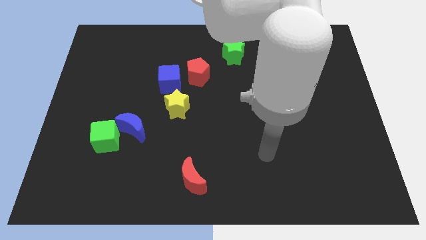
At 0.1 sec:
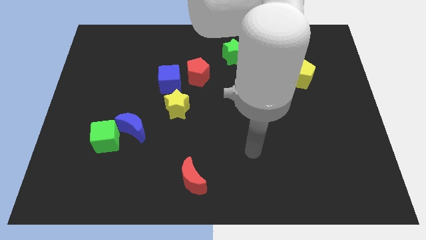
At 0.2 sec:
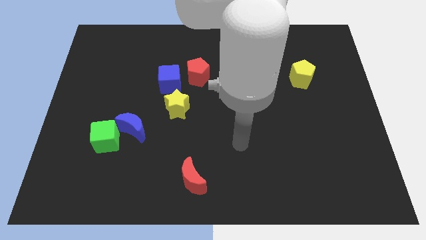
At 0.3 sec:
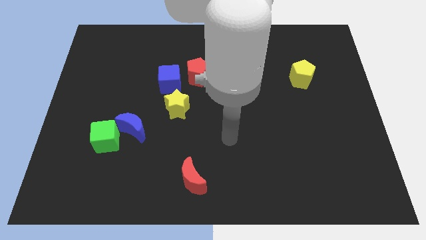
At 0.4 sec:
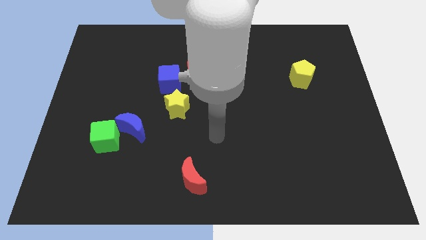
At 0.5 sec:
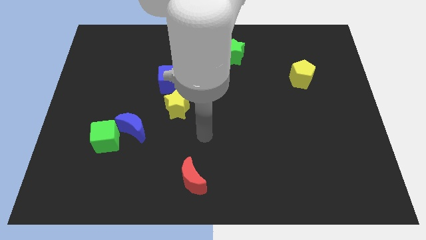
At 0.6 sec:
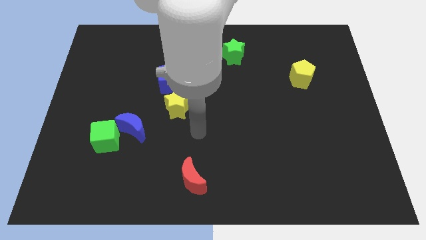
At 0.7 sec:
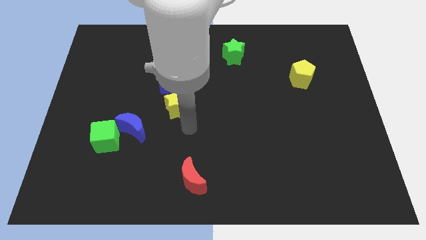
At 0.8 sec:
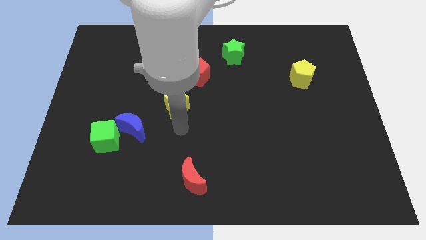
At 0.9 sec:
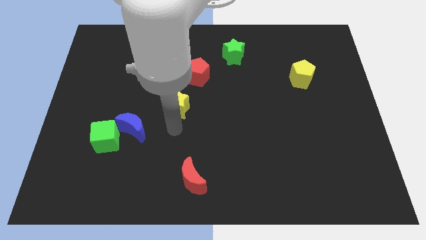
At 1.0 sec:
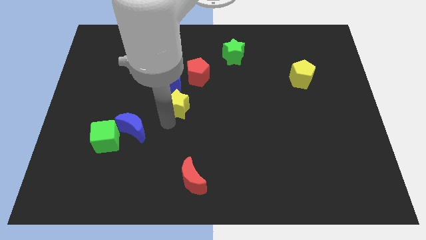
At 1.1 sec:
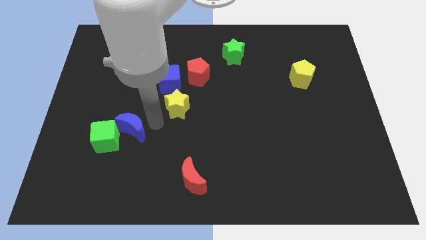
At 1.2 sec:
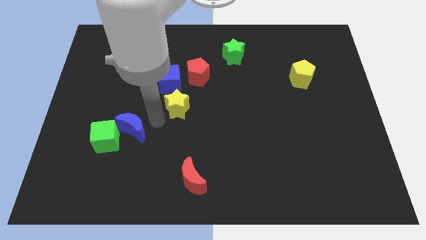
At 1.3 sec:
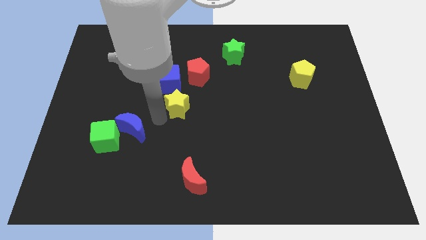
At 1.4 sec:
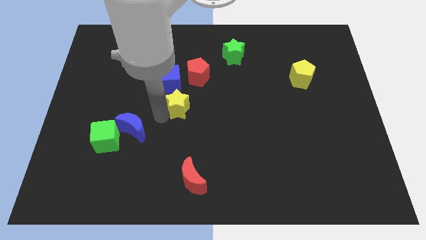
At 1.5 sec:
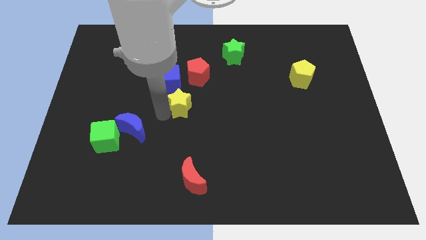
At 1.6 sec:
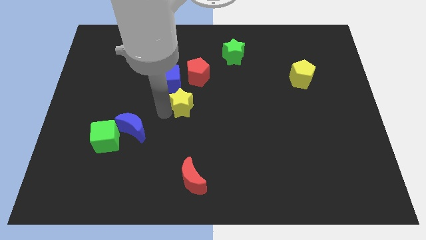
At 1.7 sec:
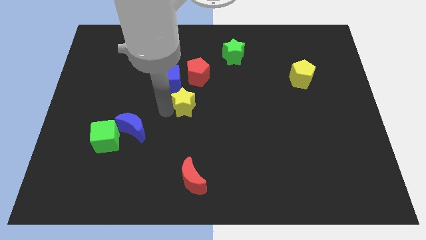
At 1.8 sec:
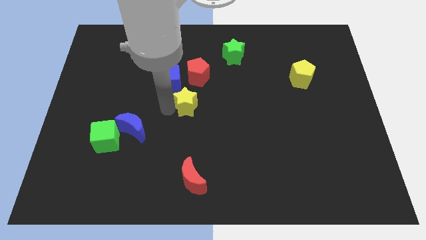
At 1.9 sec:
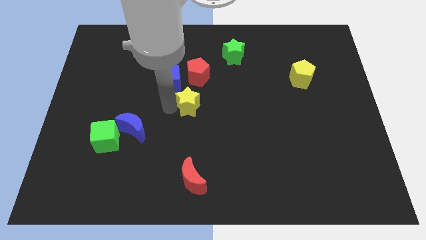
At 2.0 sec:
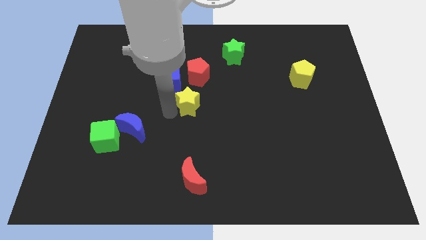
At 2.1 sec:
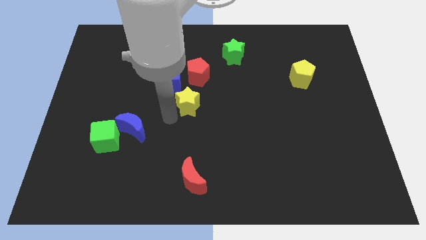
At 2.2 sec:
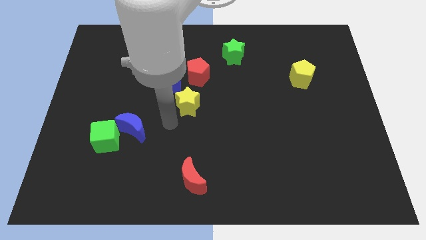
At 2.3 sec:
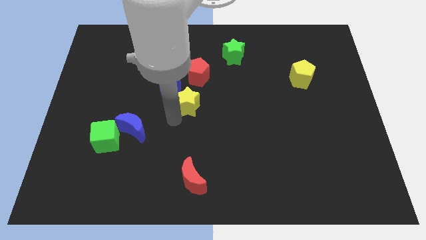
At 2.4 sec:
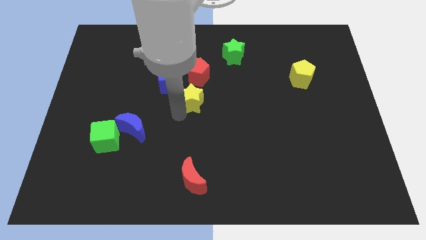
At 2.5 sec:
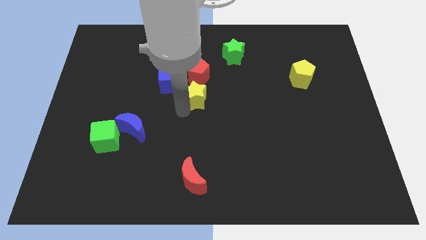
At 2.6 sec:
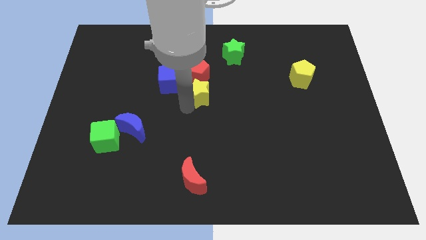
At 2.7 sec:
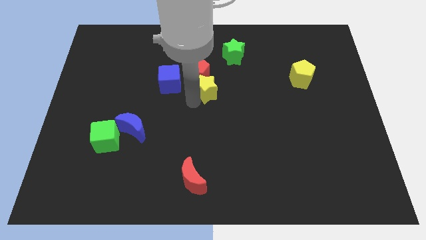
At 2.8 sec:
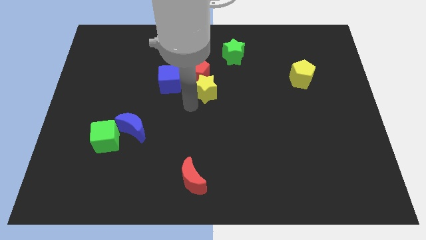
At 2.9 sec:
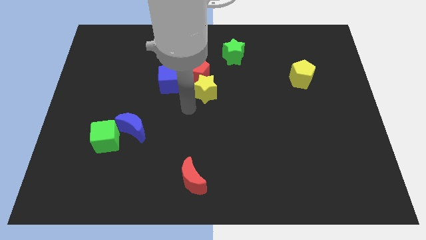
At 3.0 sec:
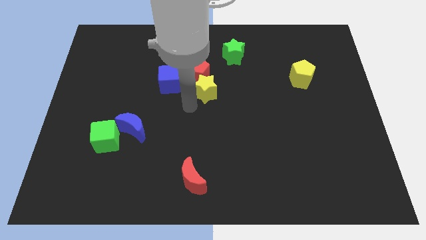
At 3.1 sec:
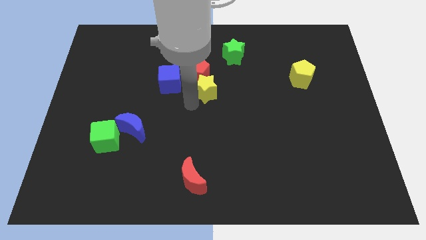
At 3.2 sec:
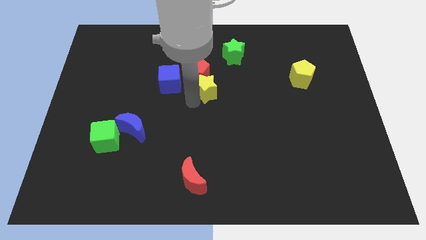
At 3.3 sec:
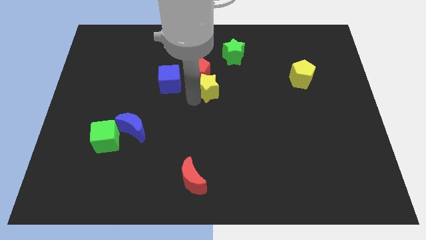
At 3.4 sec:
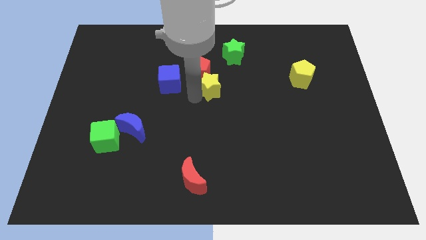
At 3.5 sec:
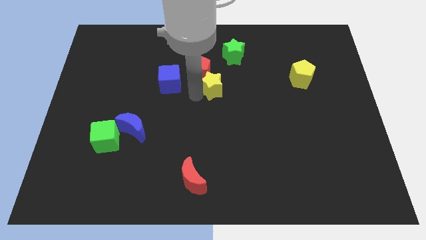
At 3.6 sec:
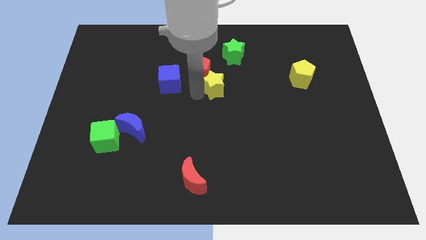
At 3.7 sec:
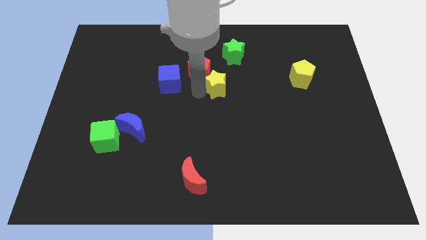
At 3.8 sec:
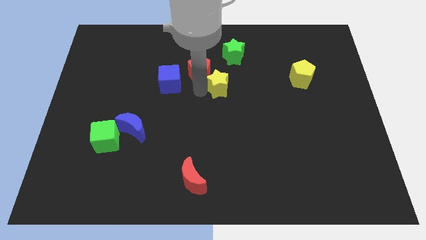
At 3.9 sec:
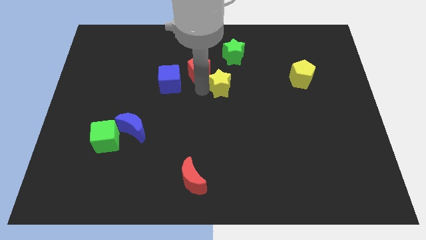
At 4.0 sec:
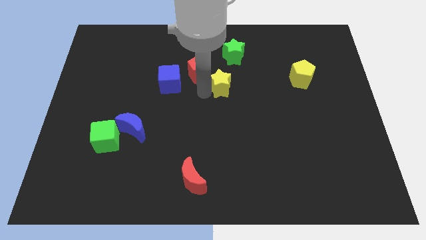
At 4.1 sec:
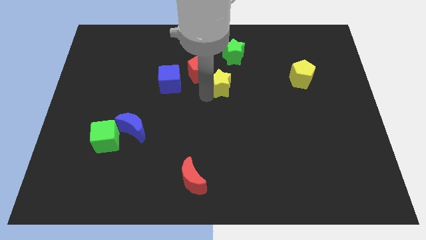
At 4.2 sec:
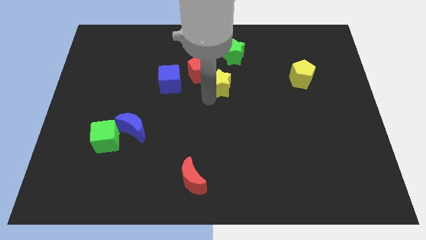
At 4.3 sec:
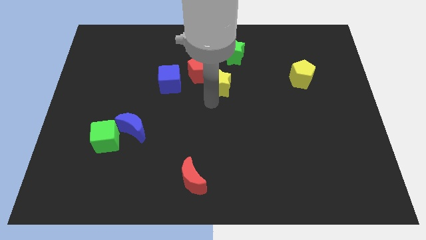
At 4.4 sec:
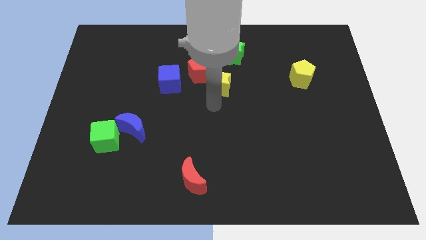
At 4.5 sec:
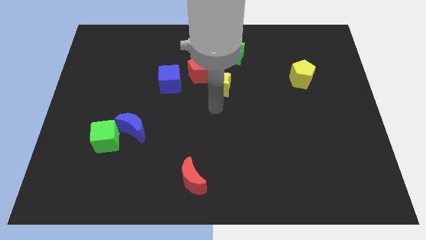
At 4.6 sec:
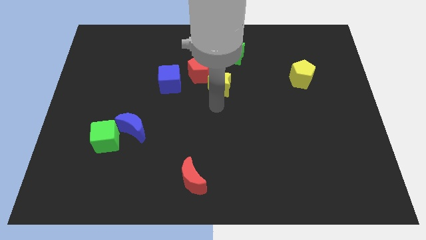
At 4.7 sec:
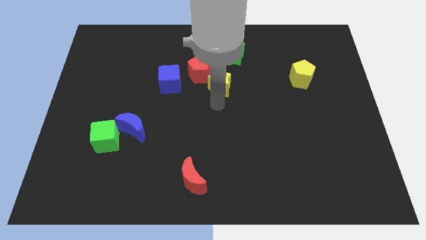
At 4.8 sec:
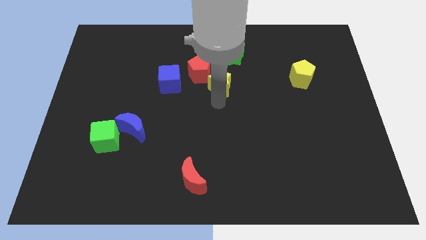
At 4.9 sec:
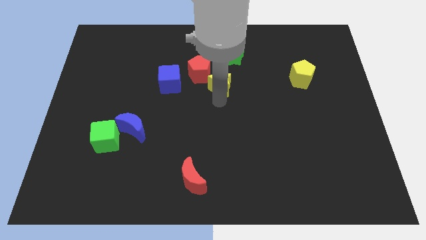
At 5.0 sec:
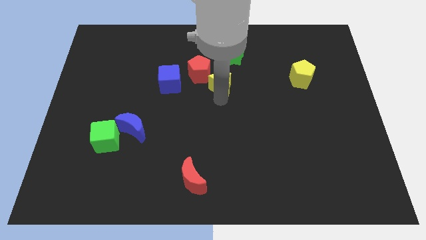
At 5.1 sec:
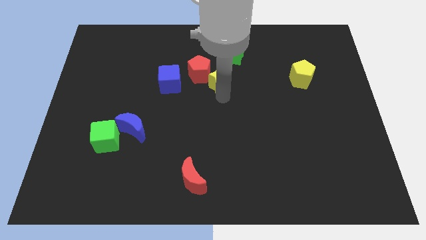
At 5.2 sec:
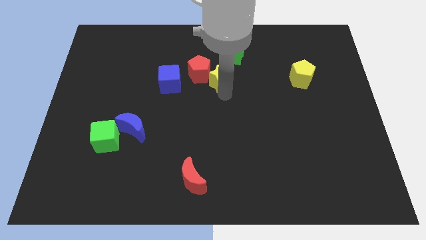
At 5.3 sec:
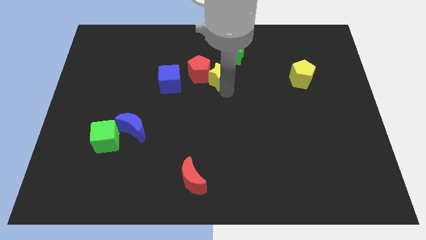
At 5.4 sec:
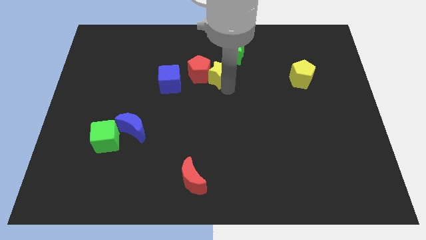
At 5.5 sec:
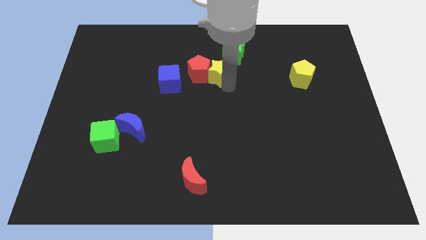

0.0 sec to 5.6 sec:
move the yellow star to the top right side of the red pentagon

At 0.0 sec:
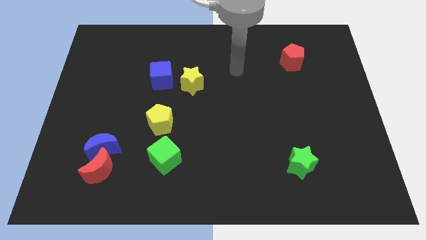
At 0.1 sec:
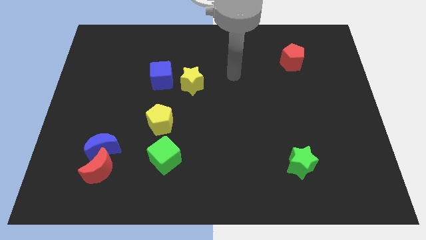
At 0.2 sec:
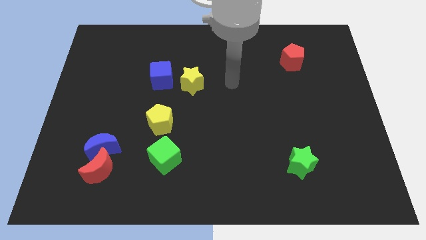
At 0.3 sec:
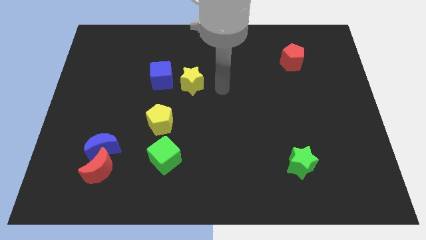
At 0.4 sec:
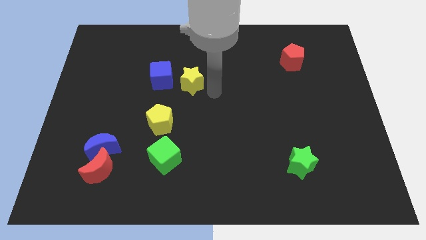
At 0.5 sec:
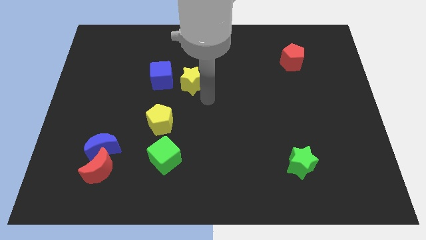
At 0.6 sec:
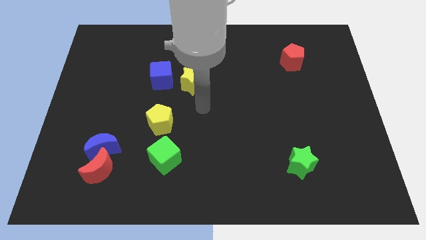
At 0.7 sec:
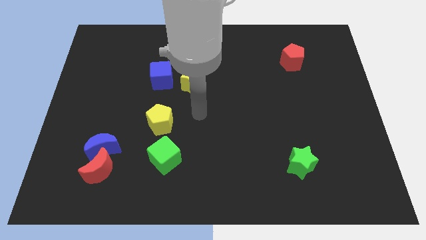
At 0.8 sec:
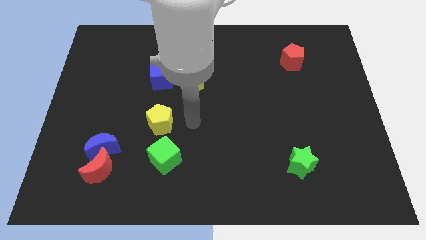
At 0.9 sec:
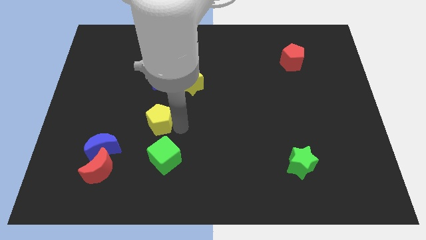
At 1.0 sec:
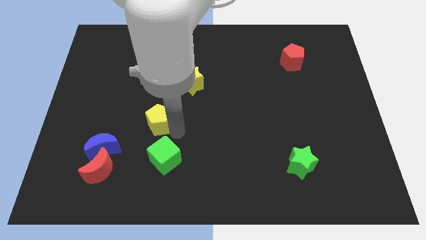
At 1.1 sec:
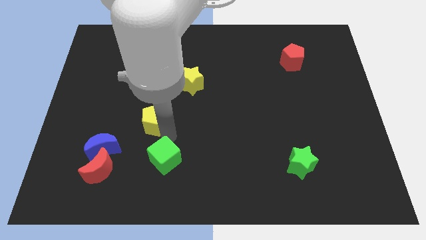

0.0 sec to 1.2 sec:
put the blue moon to the bottom left side of the yellow pentagon

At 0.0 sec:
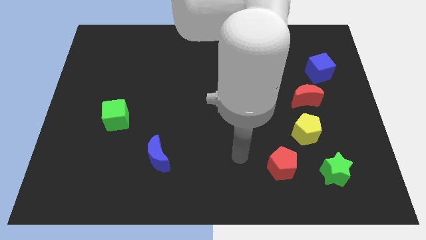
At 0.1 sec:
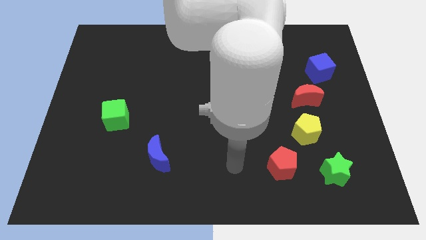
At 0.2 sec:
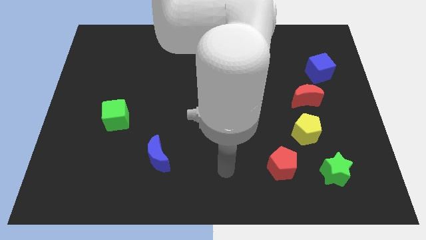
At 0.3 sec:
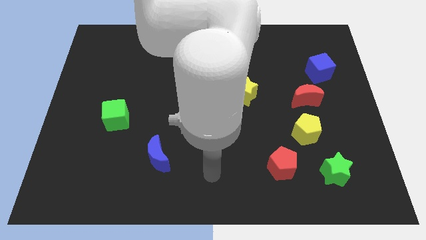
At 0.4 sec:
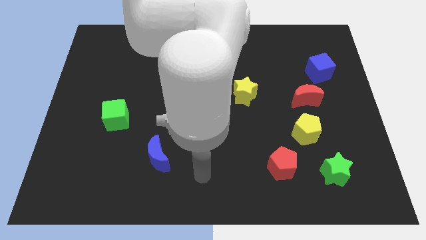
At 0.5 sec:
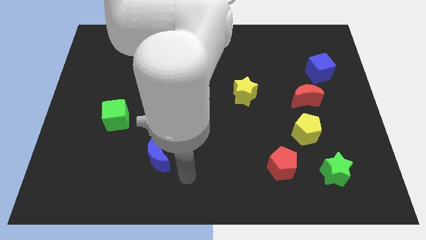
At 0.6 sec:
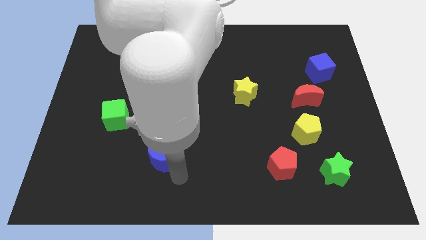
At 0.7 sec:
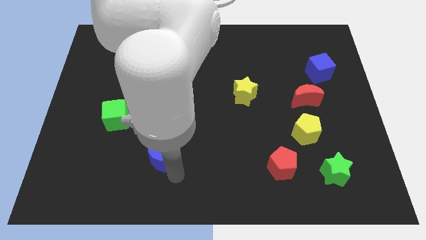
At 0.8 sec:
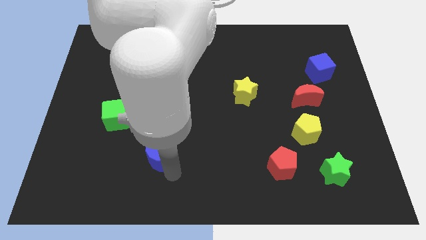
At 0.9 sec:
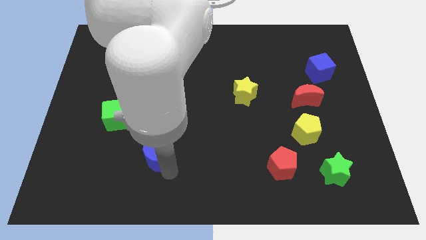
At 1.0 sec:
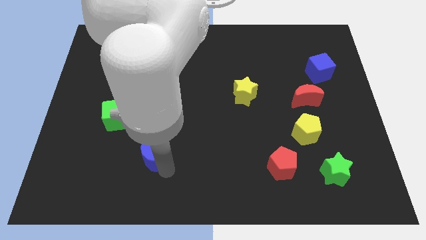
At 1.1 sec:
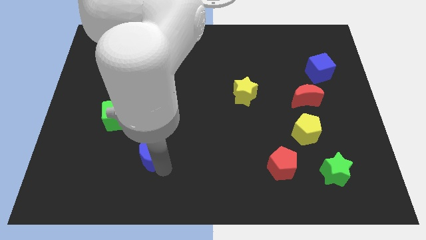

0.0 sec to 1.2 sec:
put the blue moon to the bottom right of the green cube
